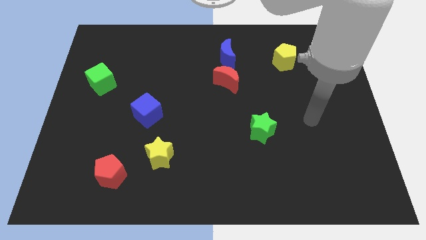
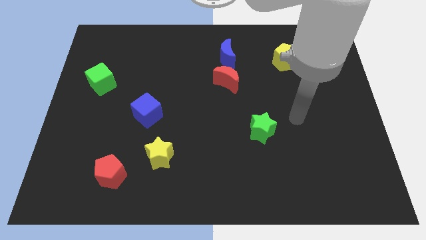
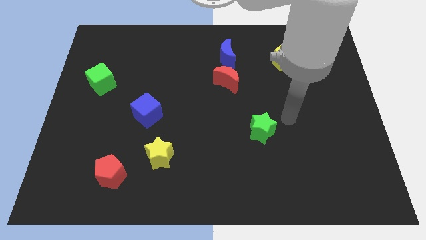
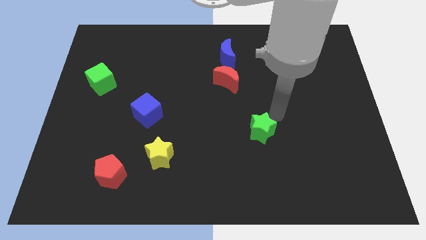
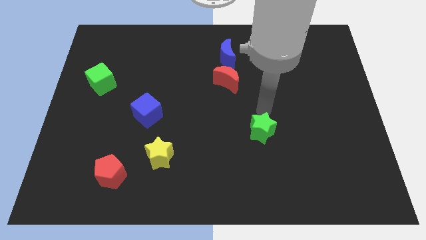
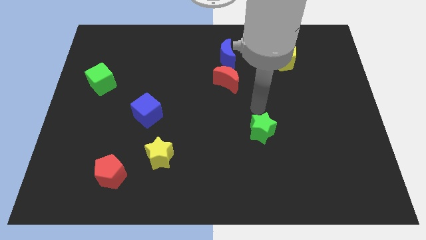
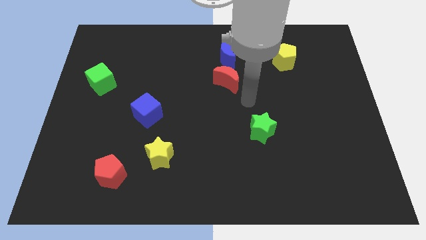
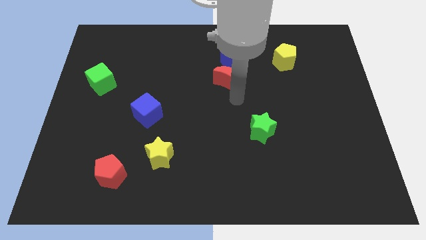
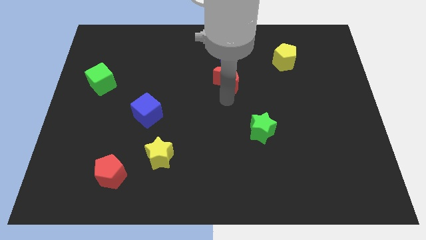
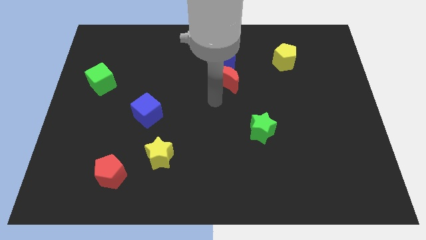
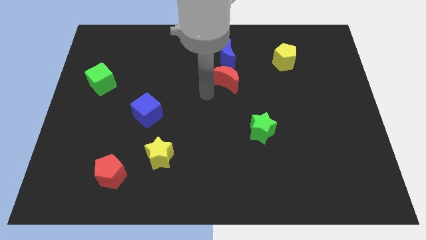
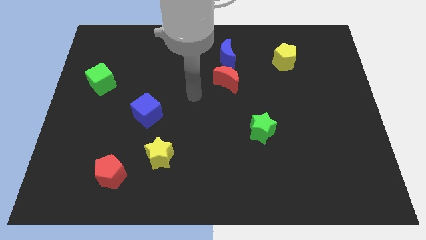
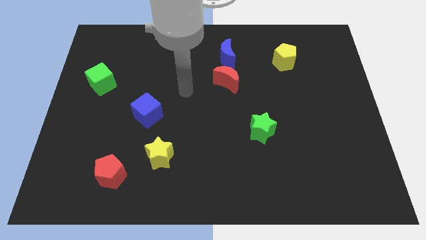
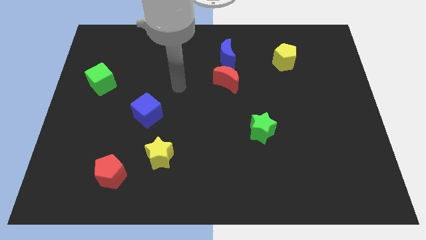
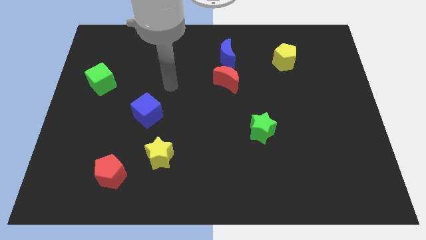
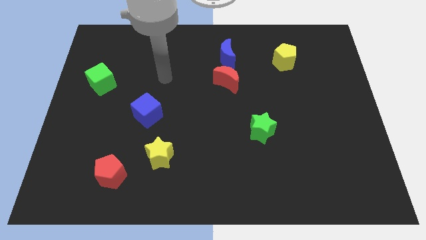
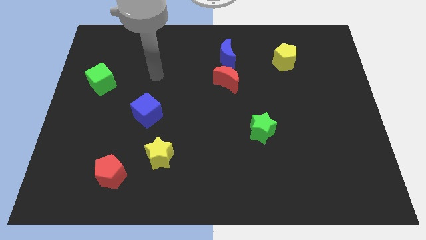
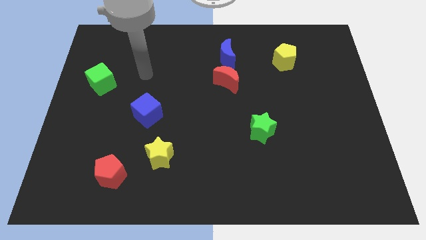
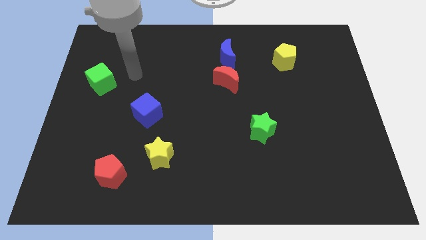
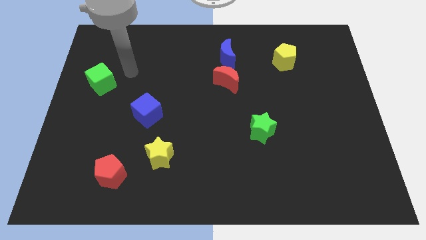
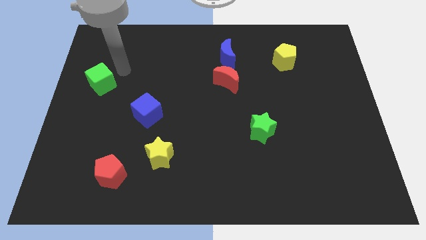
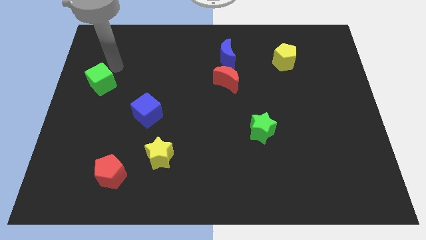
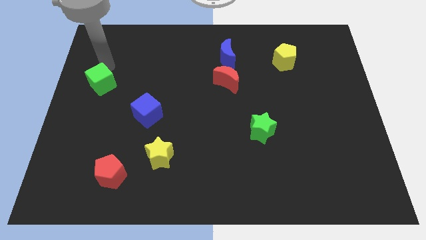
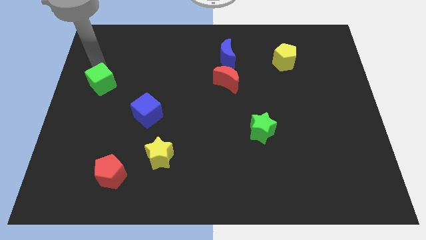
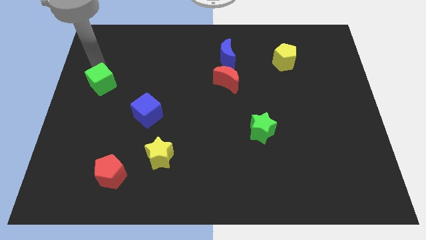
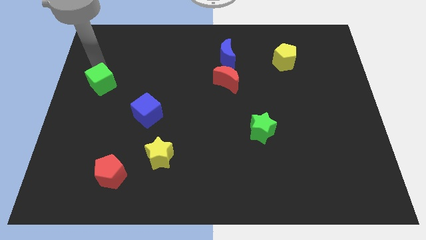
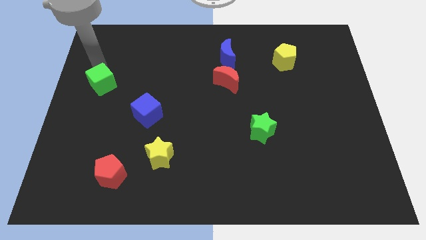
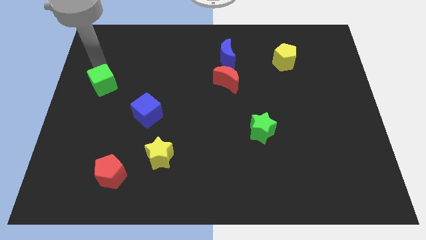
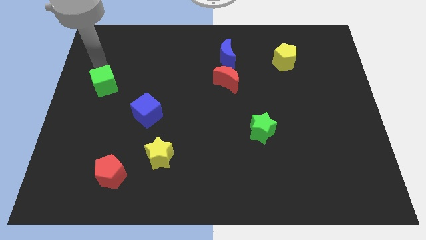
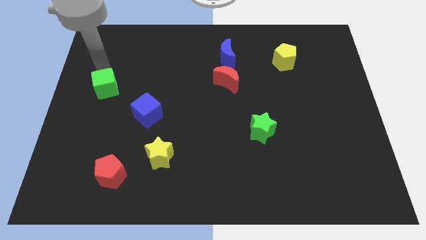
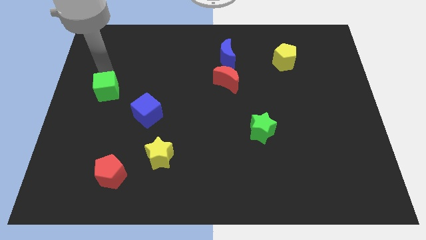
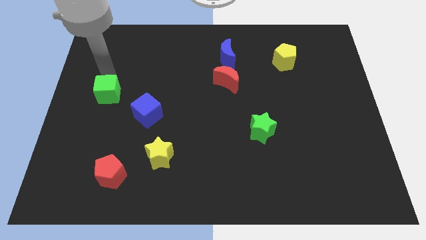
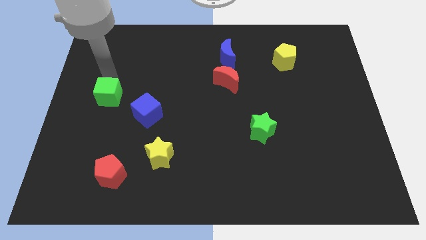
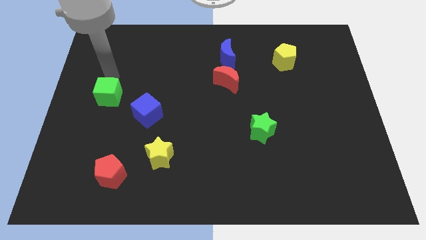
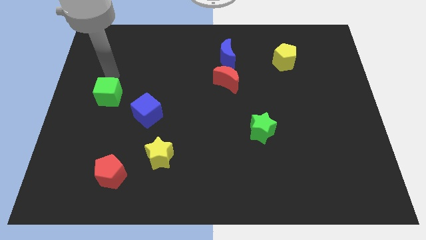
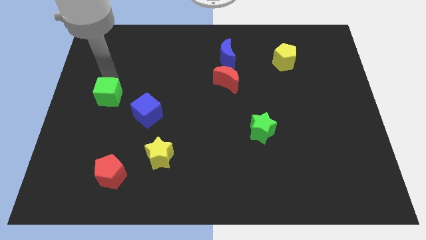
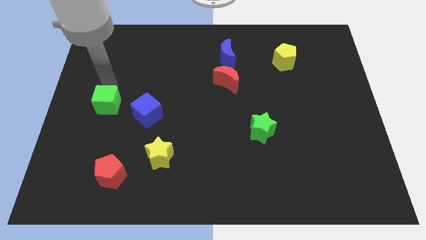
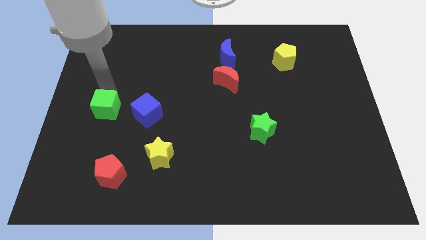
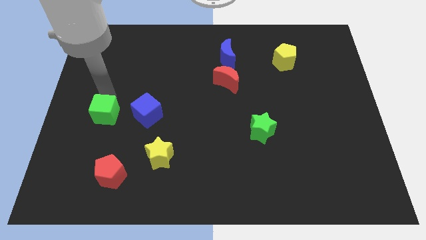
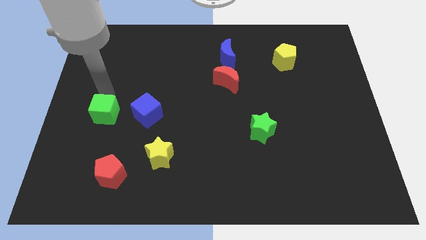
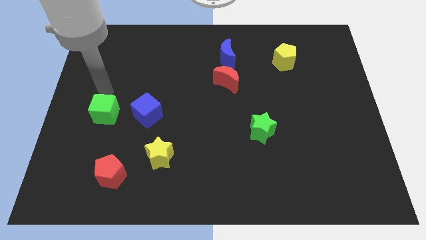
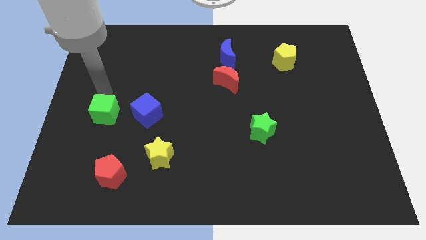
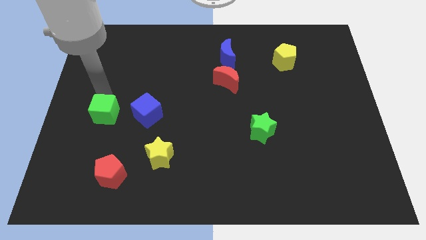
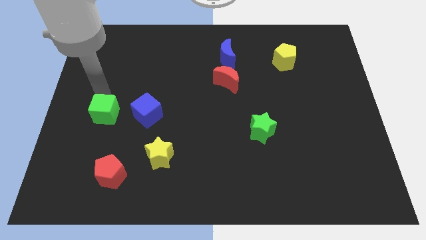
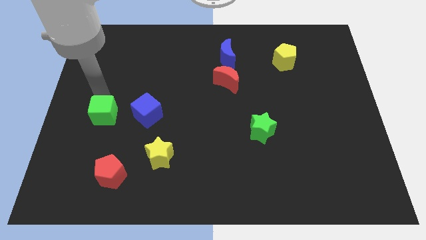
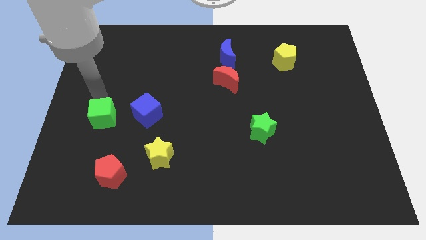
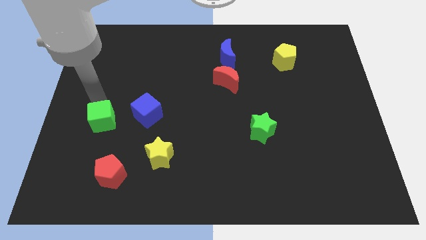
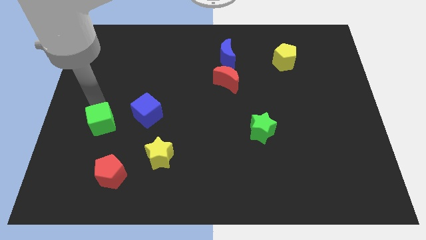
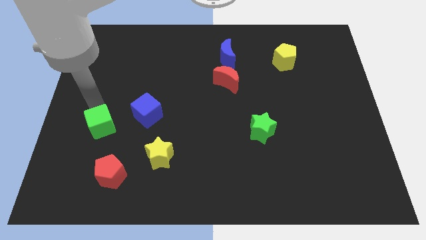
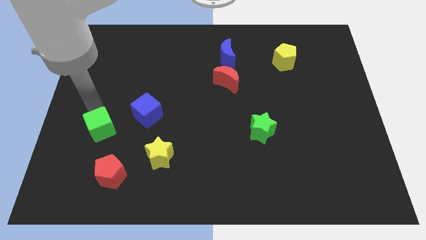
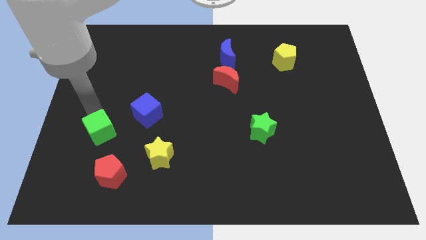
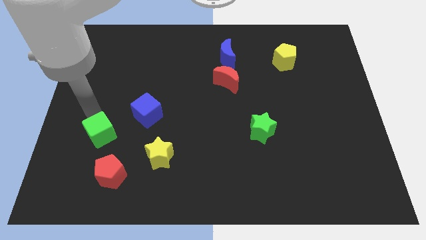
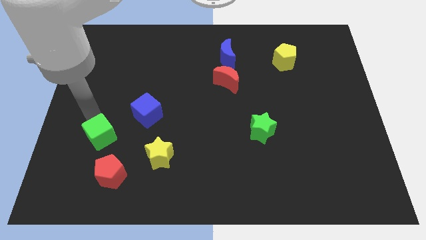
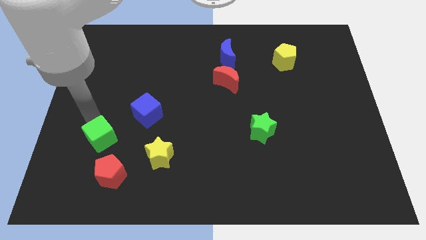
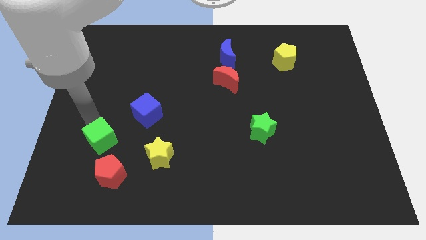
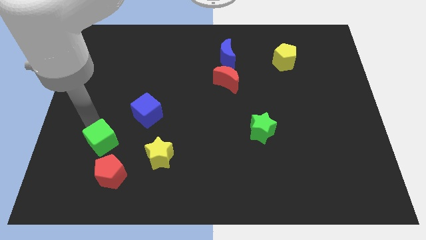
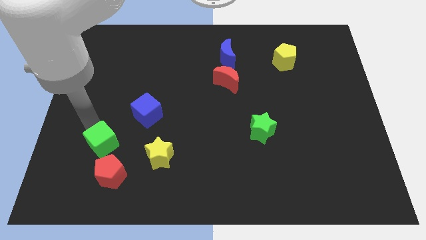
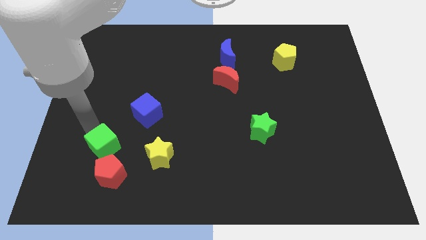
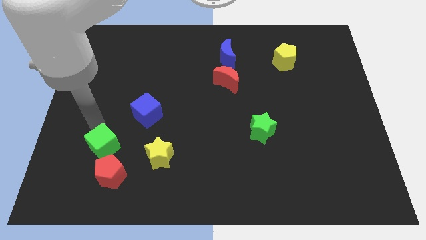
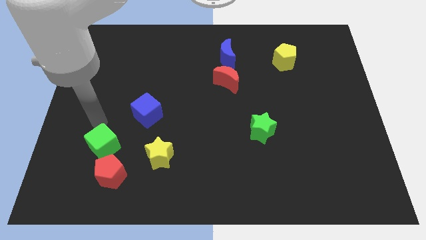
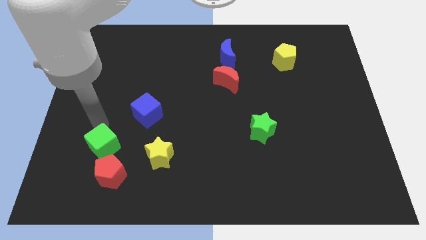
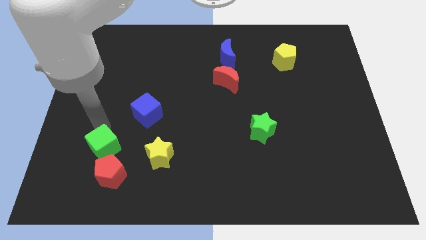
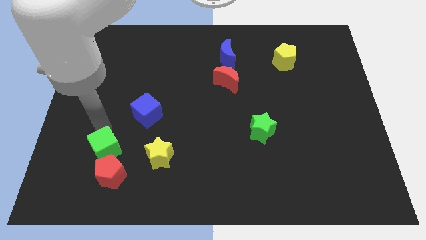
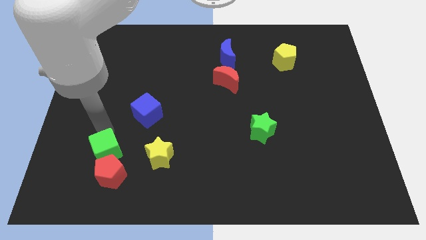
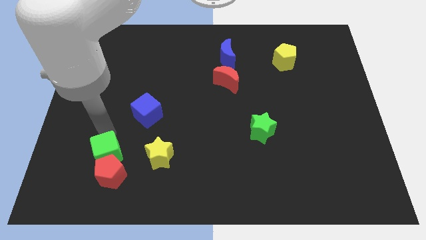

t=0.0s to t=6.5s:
put the green cube next to the red pentagon
